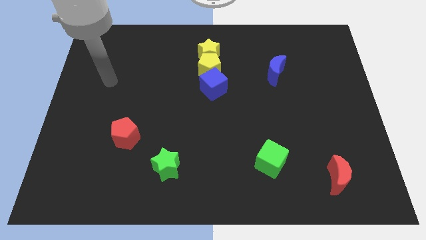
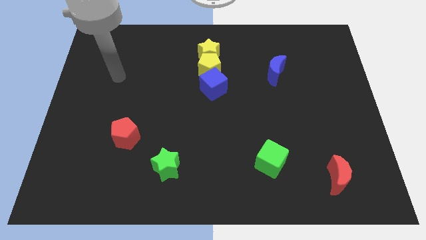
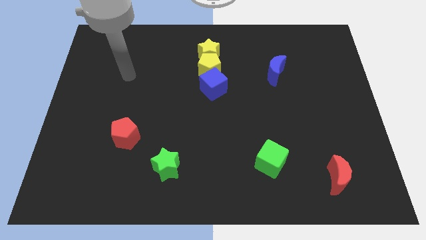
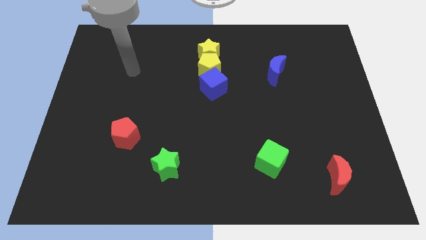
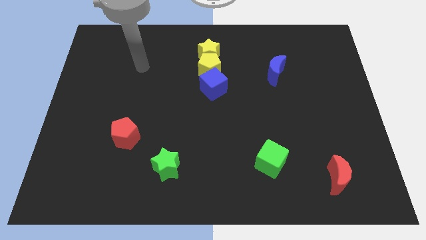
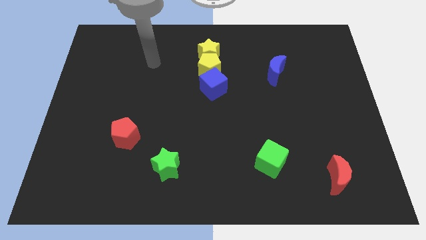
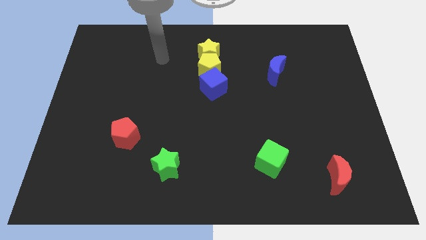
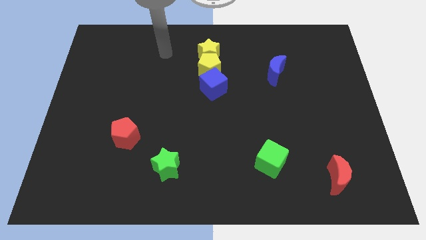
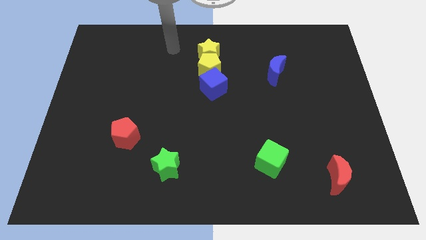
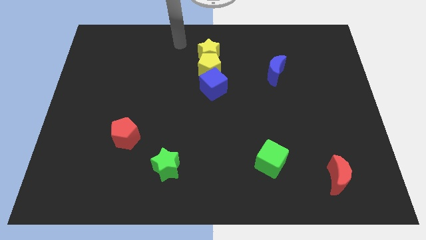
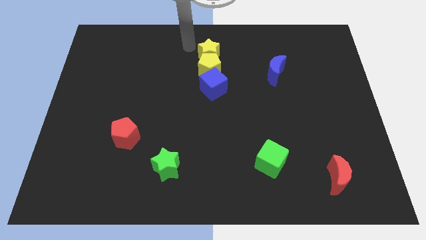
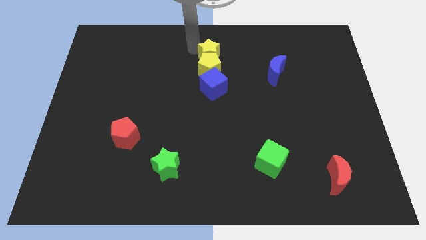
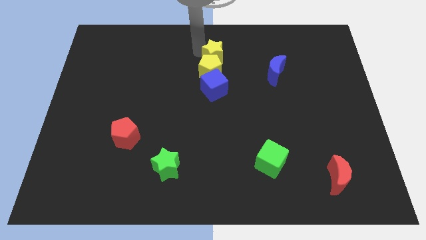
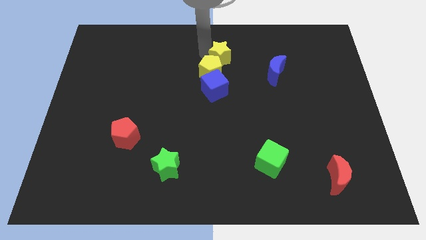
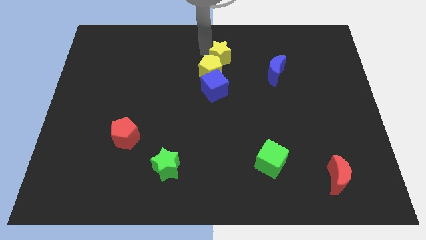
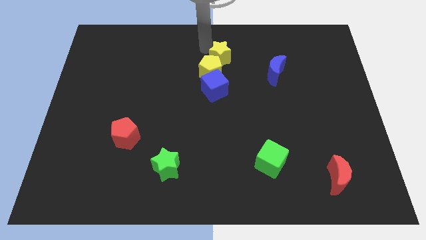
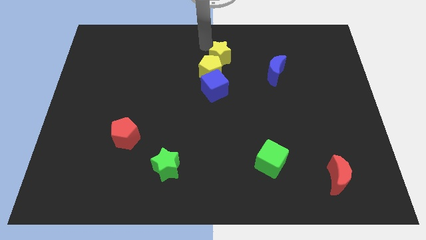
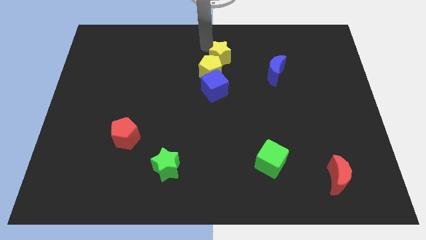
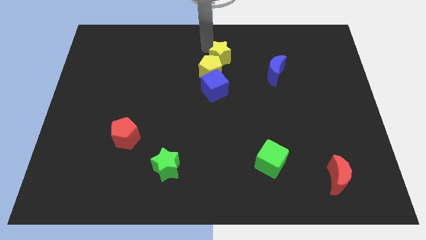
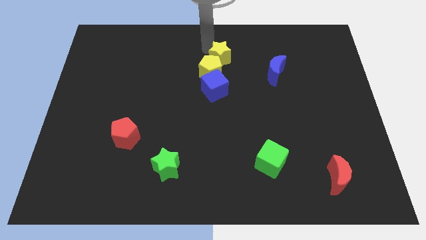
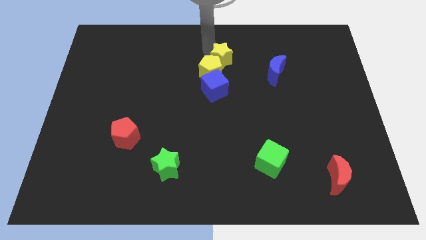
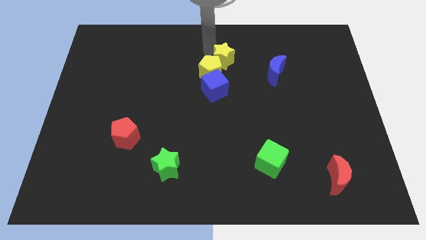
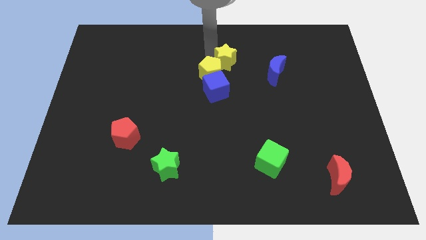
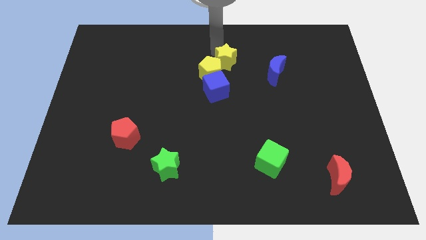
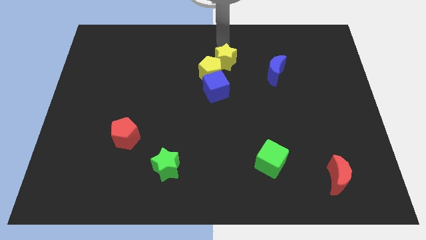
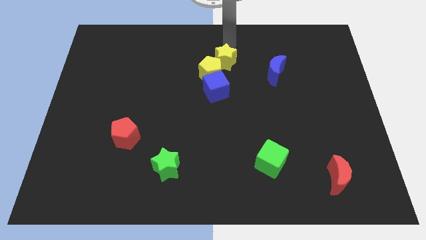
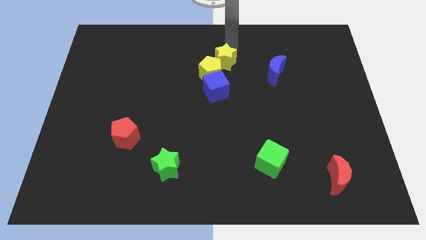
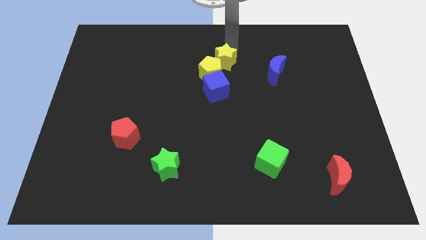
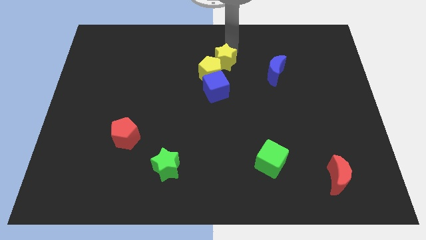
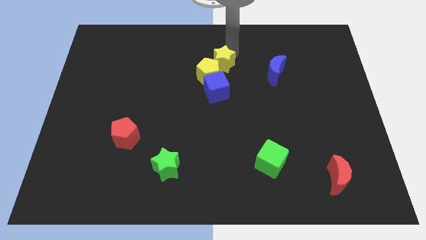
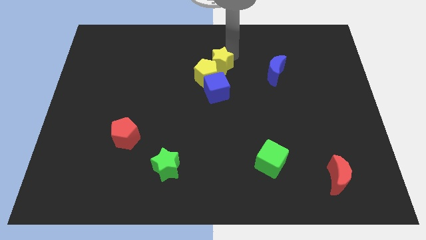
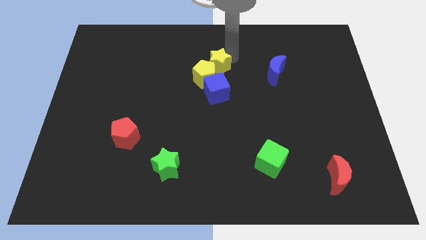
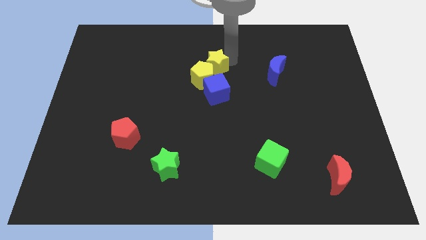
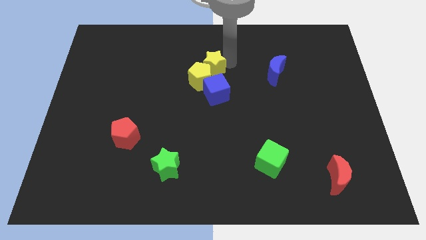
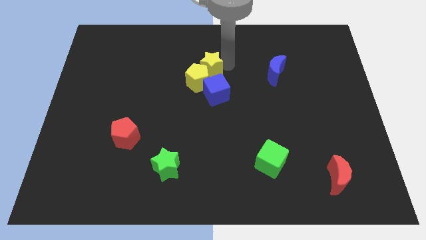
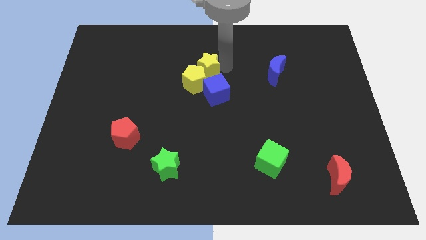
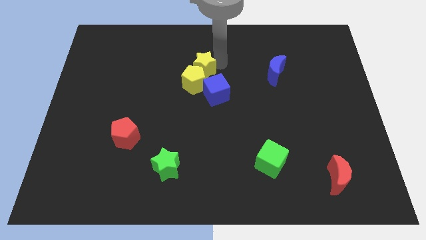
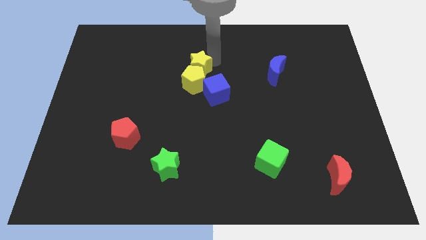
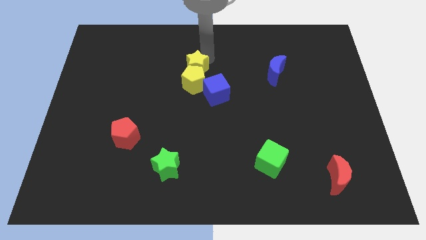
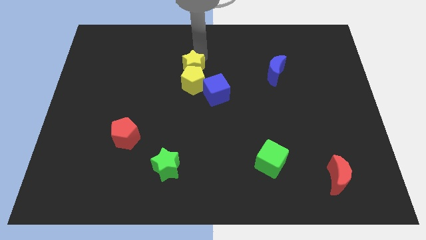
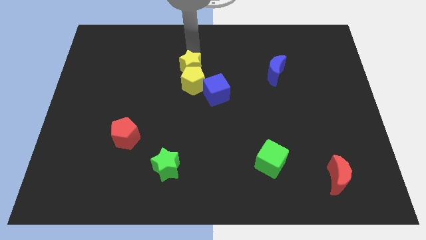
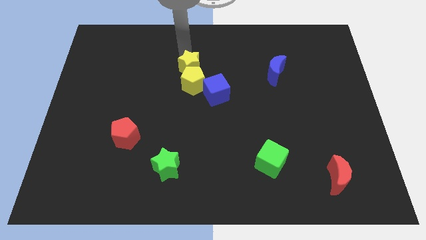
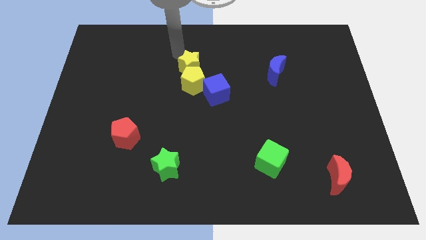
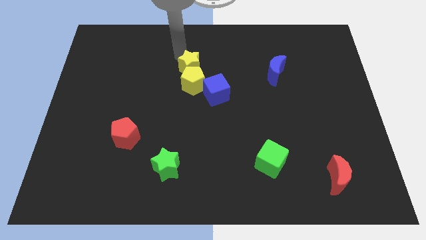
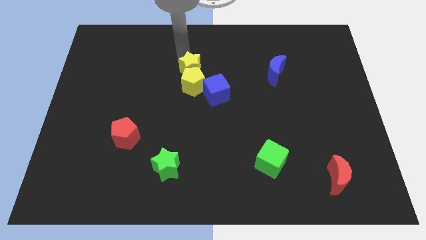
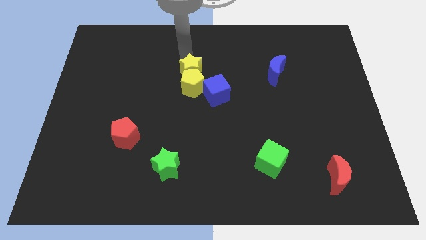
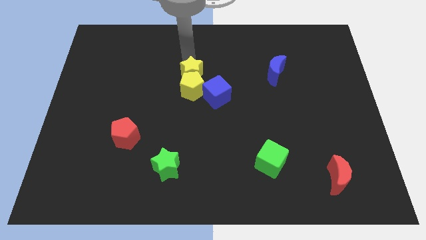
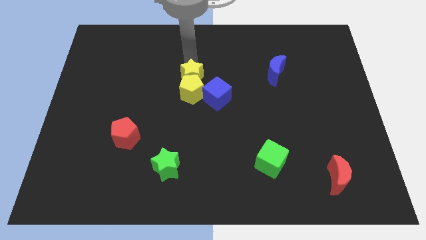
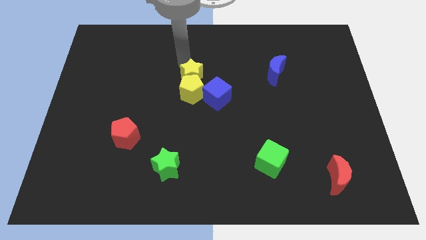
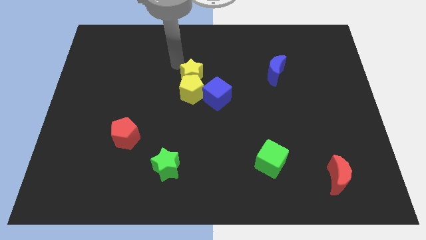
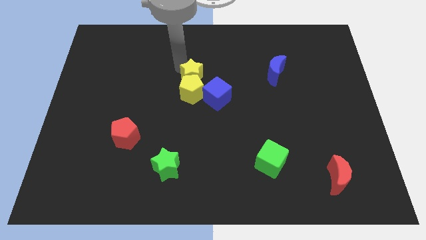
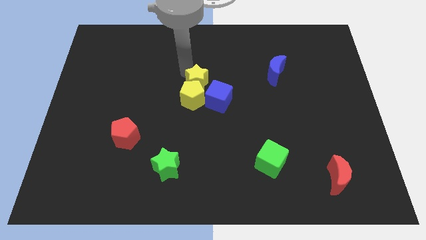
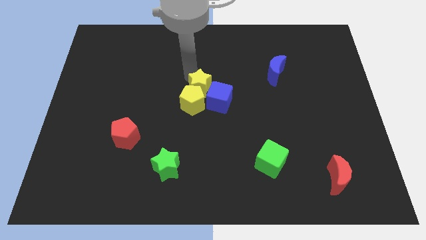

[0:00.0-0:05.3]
move the yellow star close to the blue cube

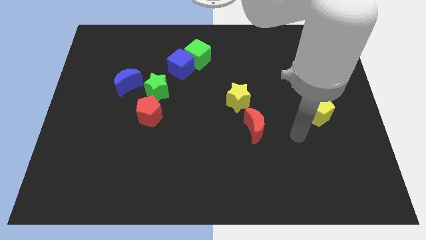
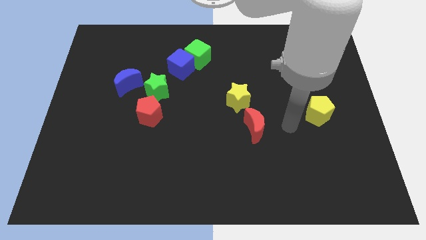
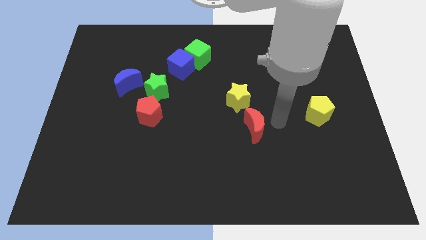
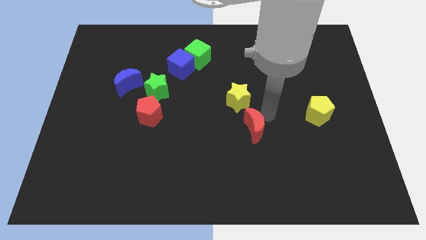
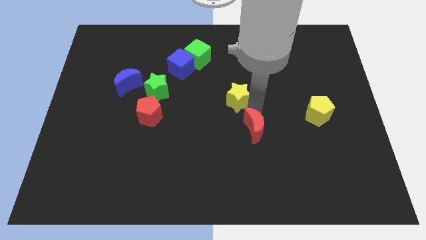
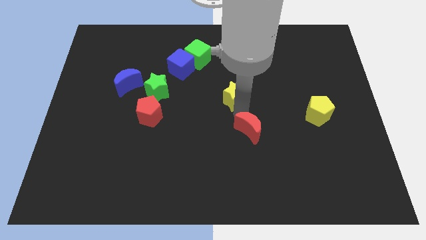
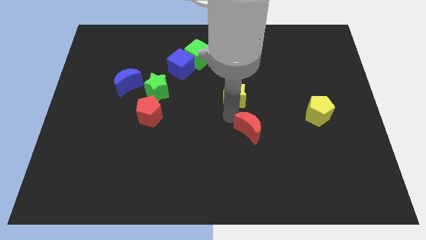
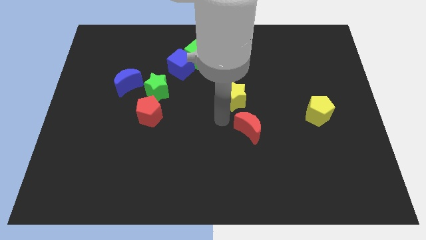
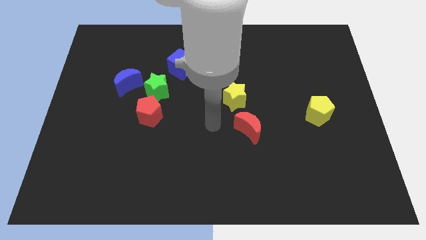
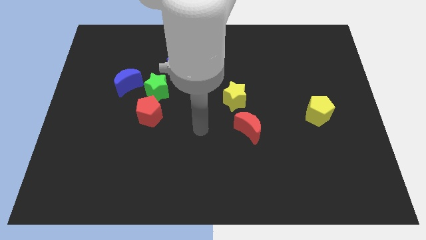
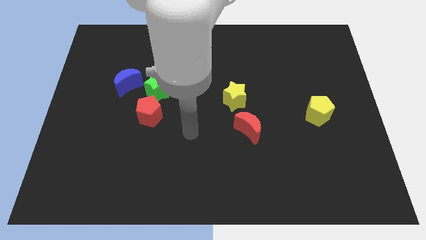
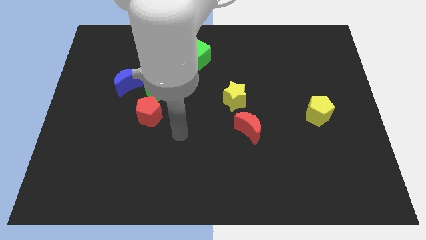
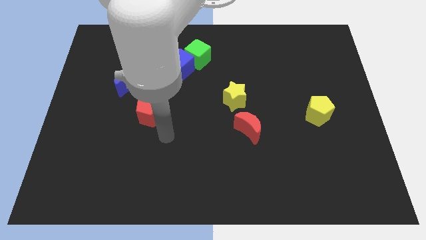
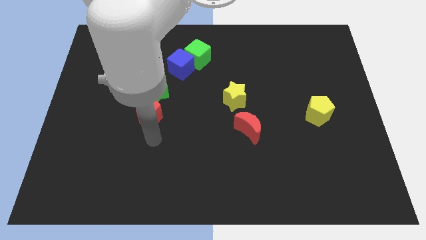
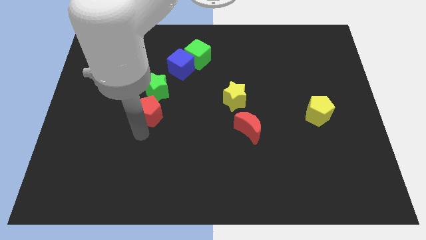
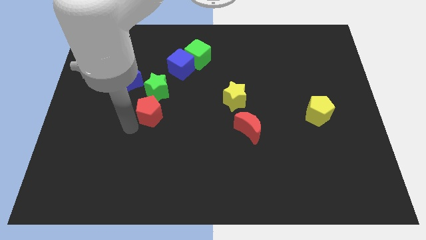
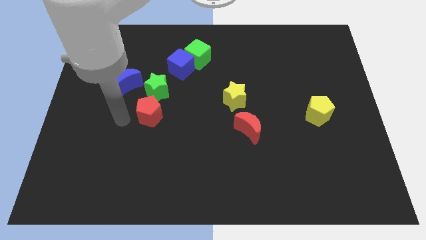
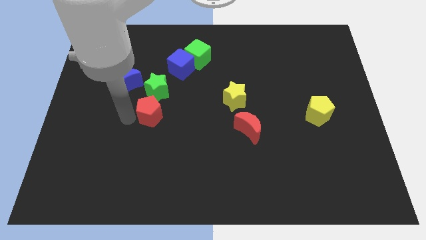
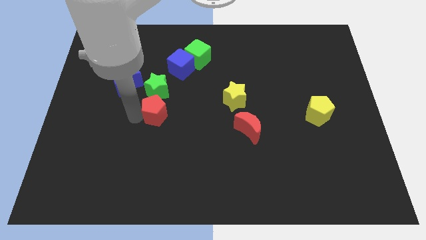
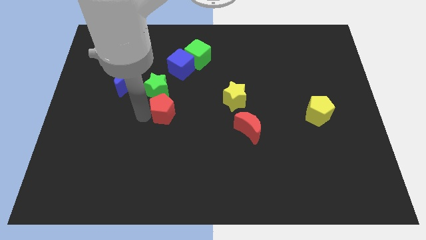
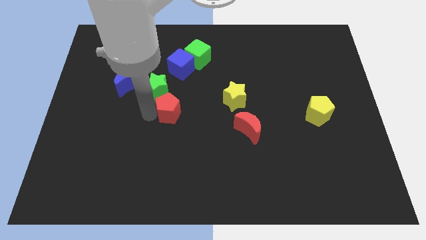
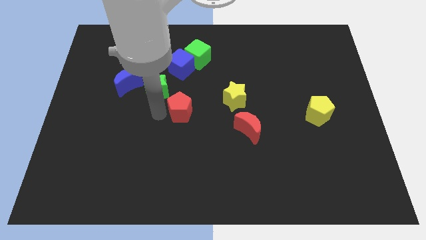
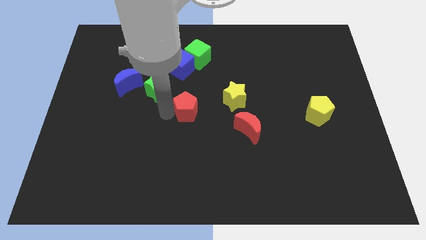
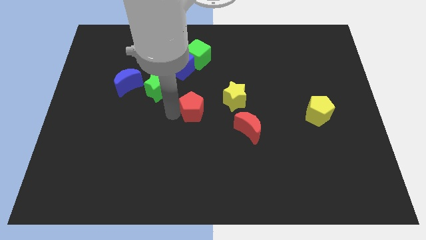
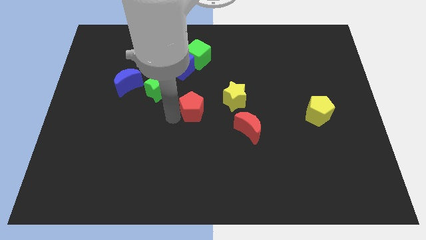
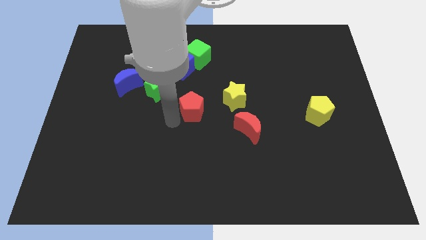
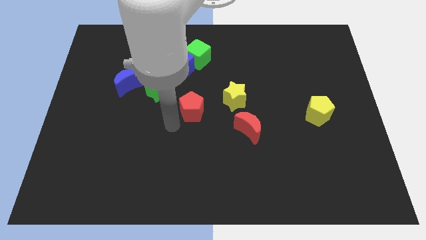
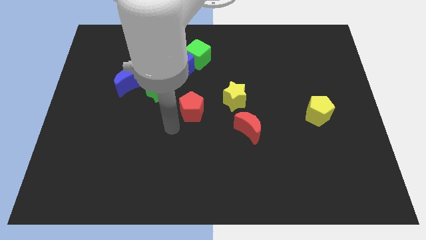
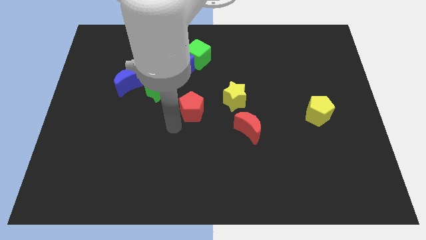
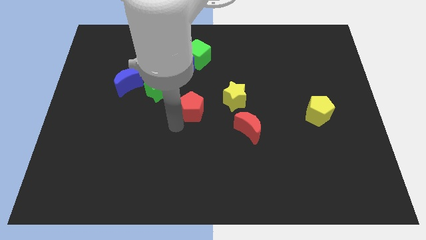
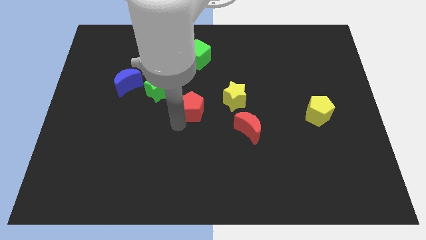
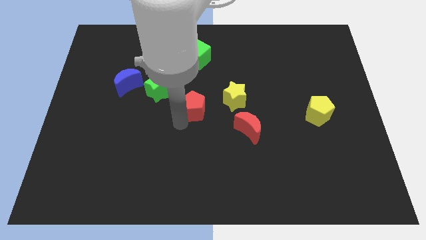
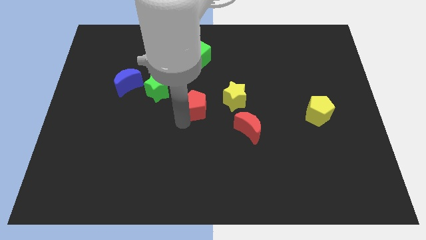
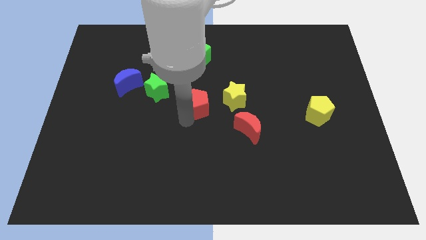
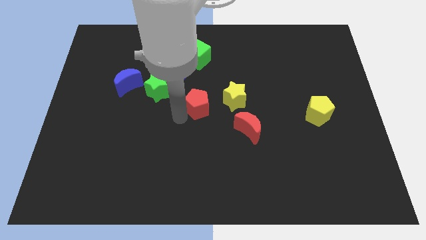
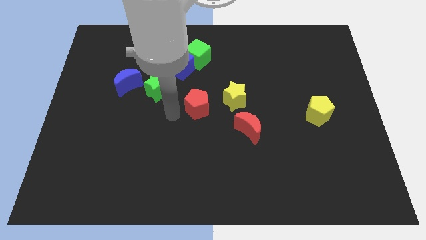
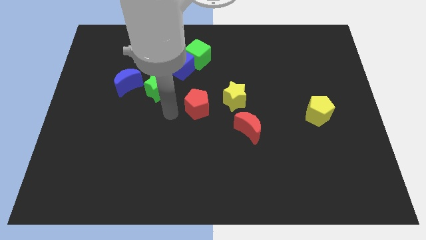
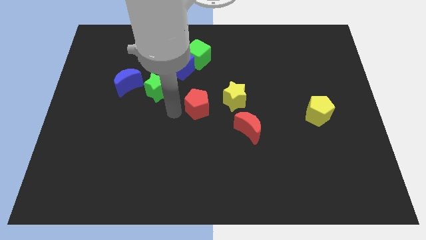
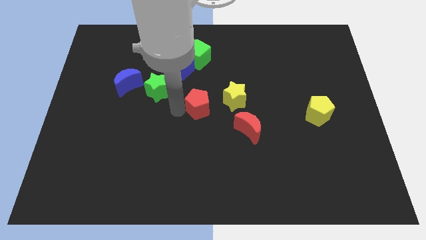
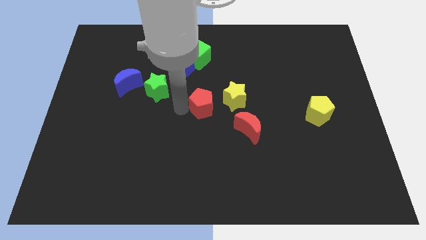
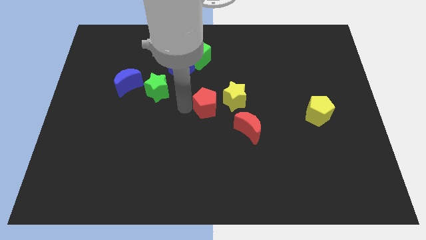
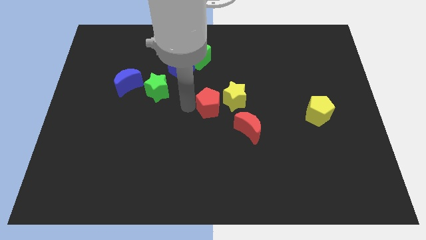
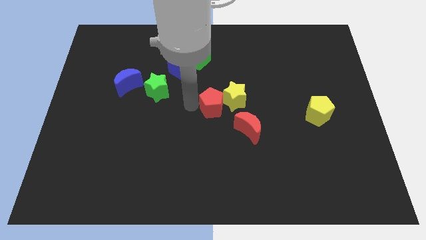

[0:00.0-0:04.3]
put the red pentagon to the yellow star
